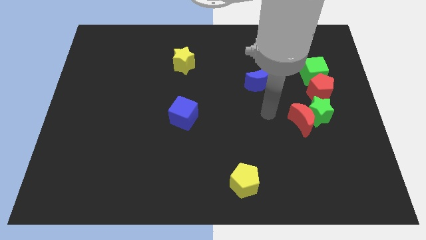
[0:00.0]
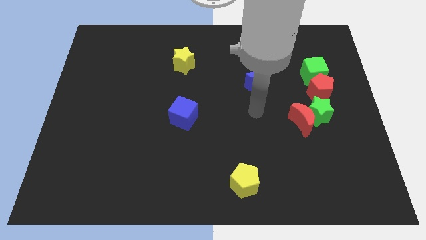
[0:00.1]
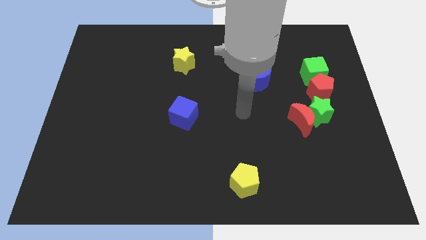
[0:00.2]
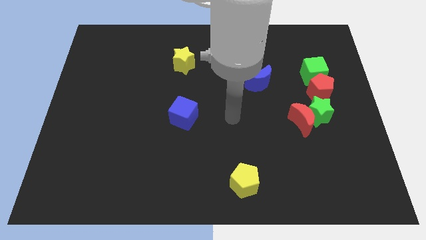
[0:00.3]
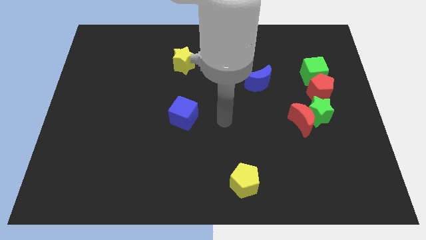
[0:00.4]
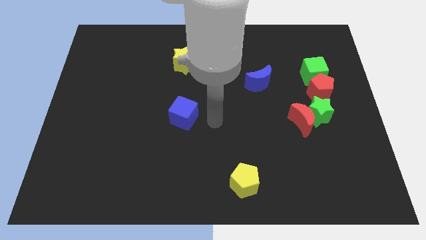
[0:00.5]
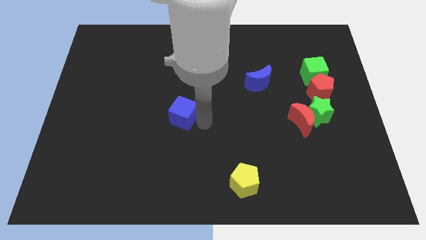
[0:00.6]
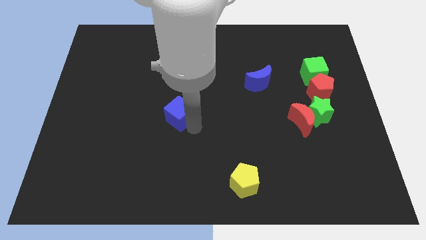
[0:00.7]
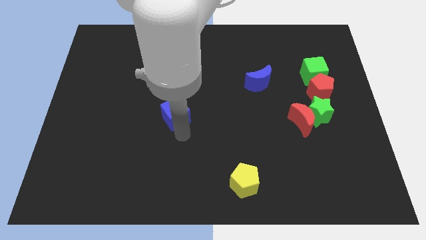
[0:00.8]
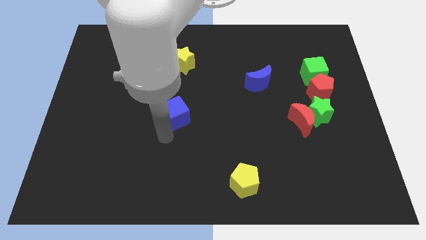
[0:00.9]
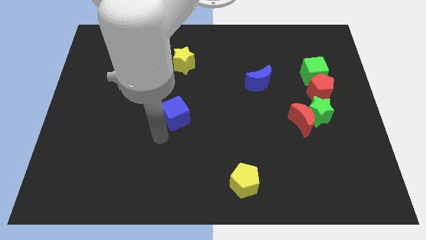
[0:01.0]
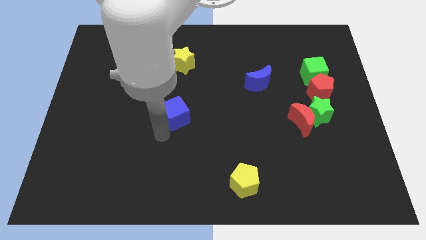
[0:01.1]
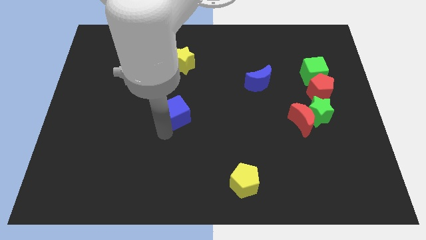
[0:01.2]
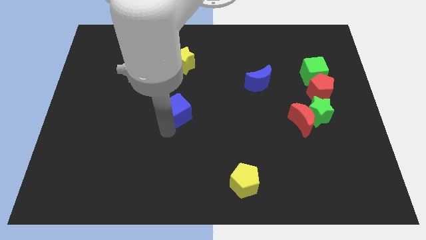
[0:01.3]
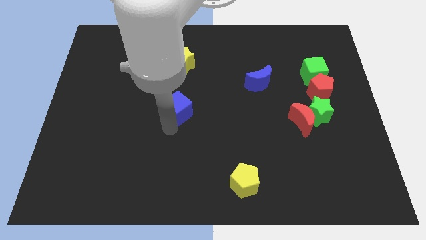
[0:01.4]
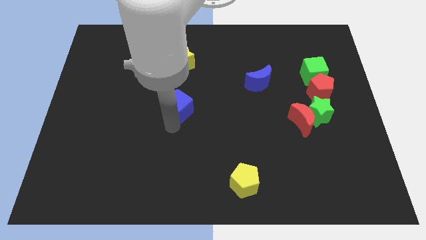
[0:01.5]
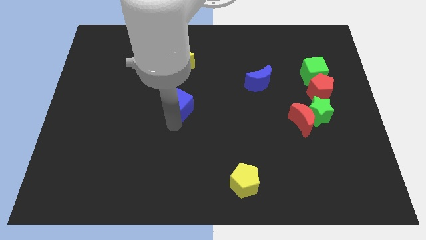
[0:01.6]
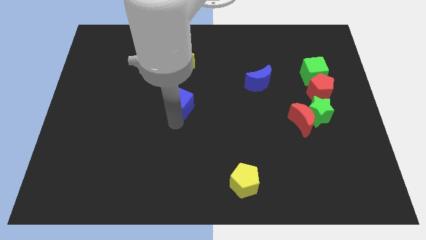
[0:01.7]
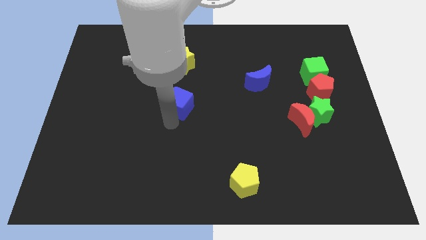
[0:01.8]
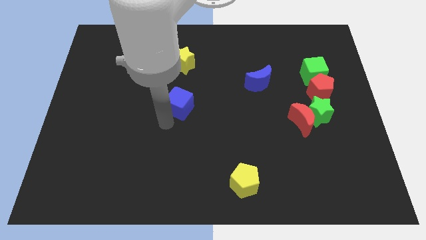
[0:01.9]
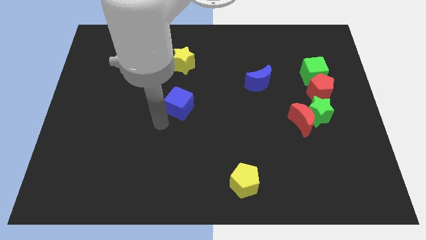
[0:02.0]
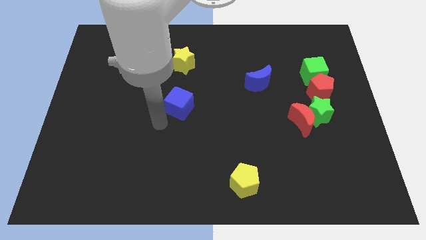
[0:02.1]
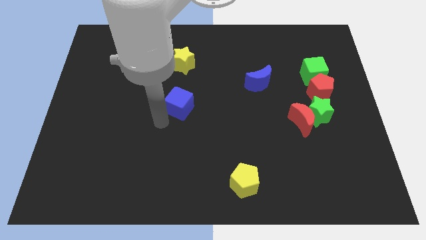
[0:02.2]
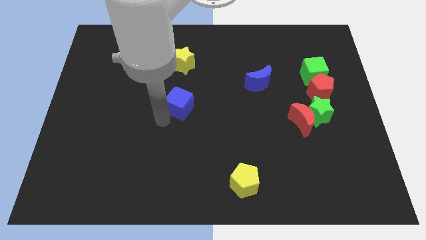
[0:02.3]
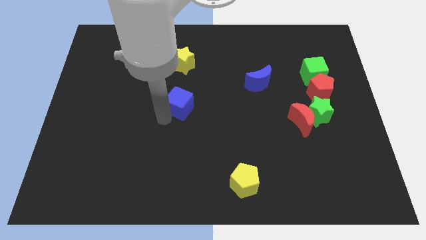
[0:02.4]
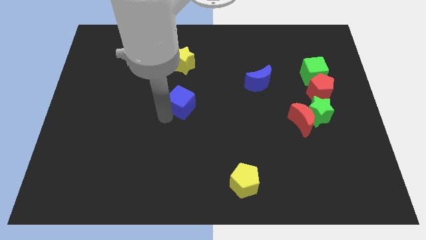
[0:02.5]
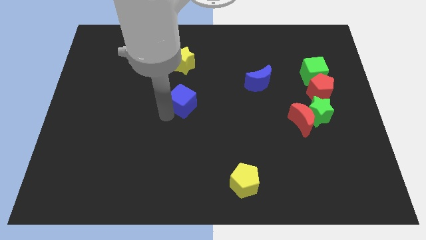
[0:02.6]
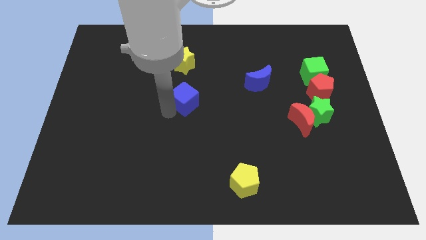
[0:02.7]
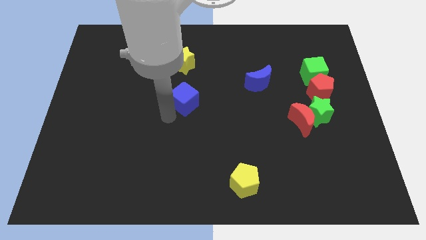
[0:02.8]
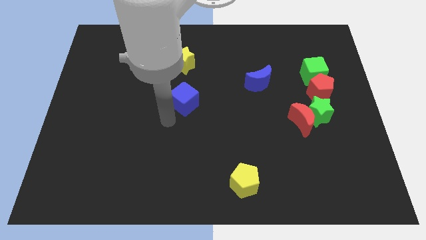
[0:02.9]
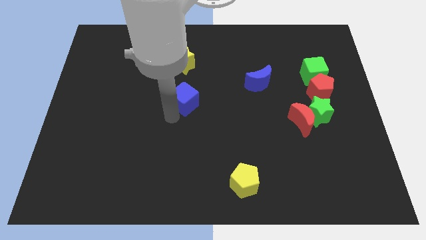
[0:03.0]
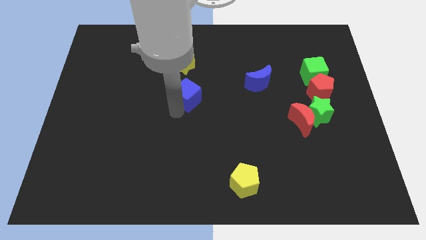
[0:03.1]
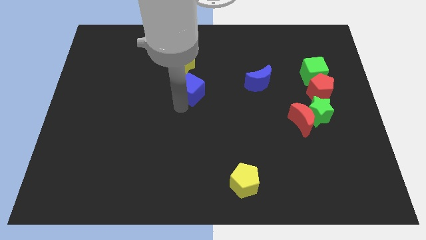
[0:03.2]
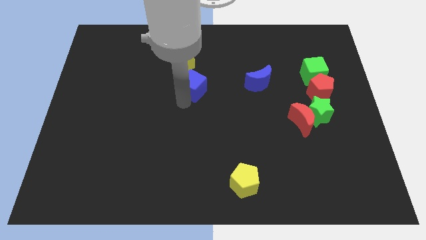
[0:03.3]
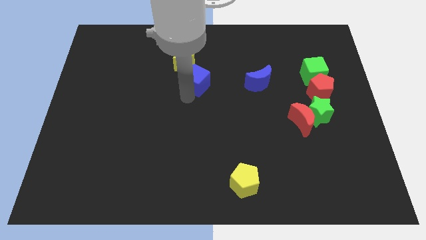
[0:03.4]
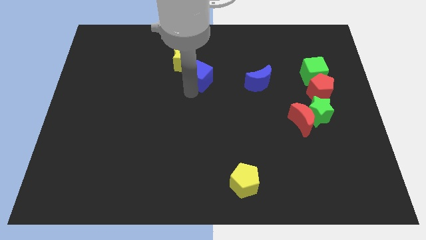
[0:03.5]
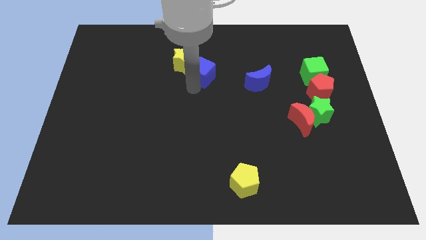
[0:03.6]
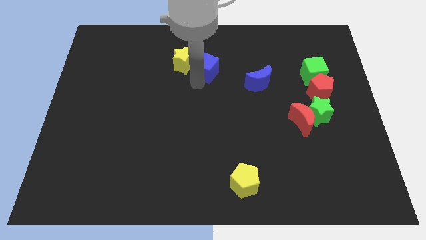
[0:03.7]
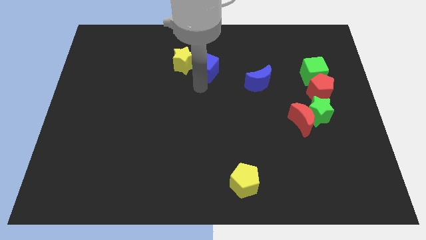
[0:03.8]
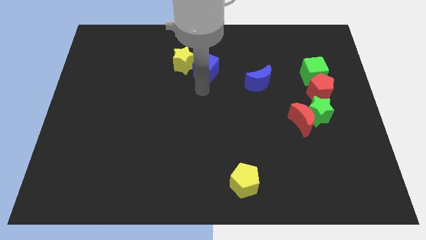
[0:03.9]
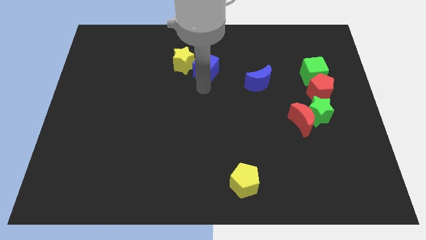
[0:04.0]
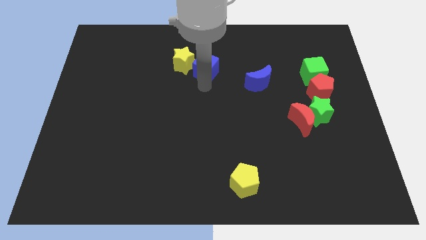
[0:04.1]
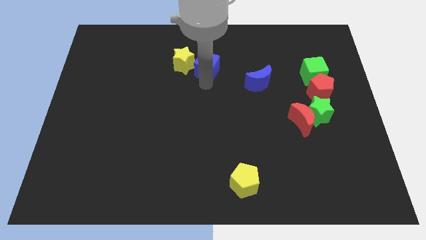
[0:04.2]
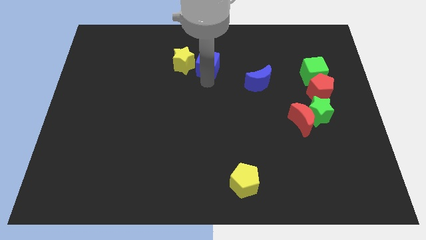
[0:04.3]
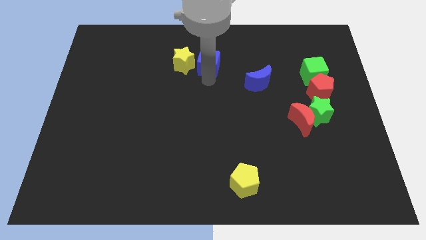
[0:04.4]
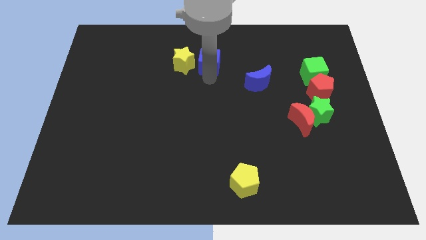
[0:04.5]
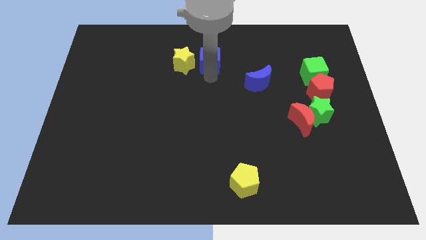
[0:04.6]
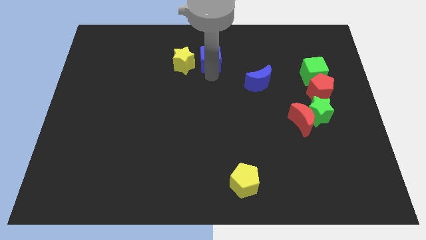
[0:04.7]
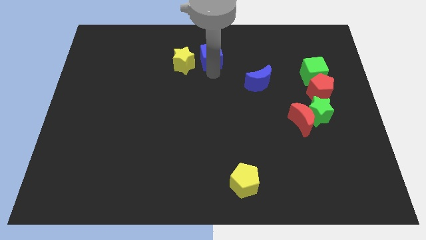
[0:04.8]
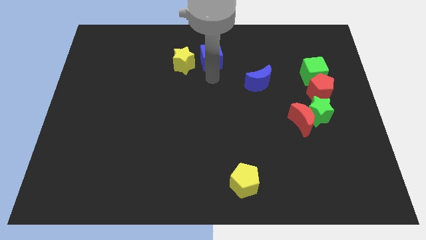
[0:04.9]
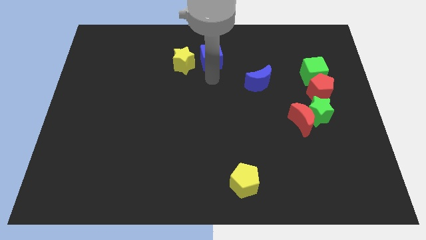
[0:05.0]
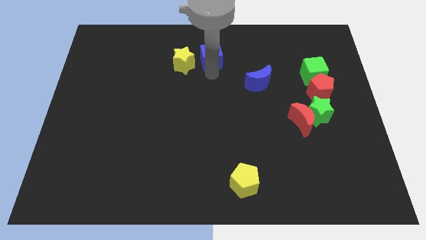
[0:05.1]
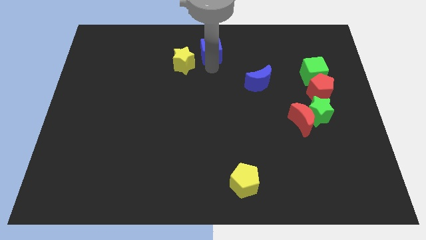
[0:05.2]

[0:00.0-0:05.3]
move the blue cube to the top side

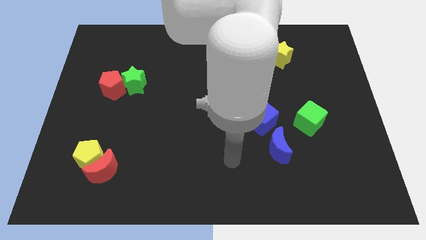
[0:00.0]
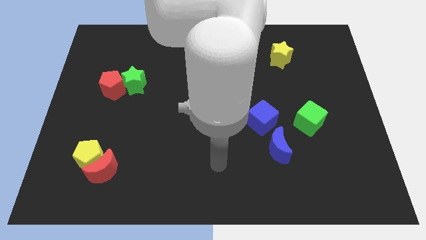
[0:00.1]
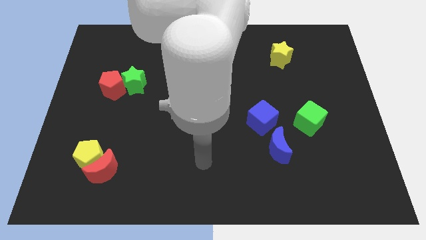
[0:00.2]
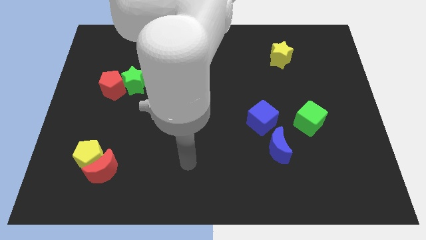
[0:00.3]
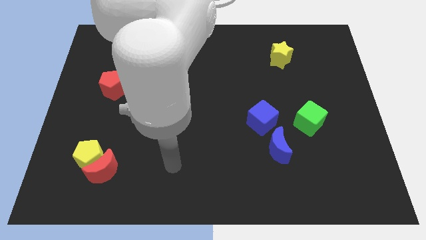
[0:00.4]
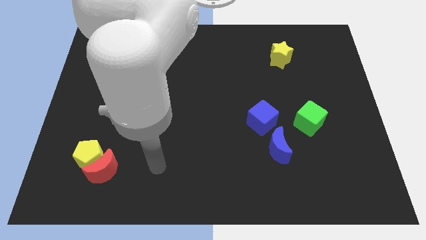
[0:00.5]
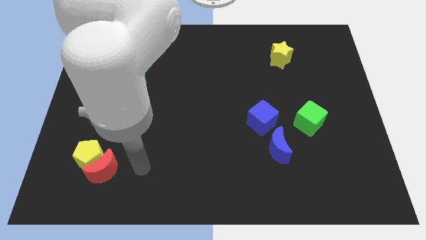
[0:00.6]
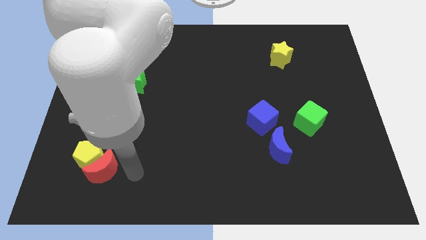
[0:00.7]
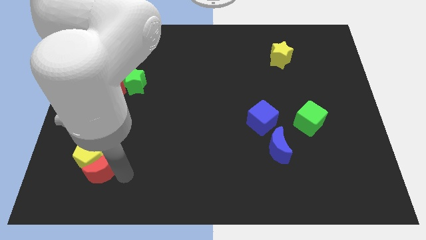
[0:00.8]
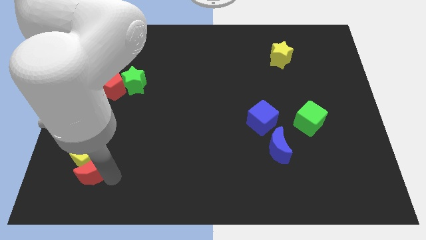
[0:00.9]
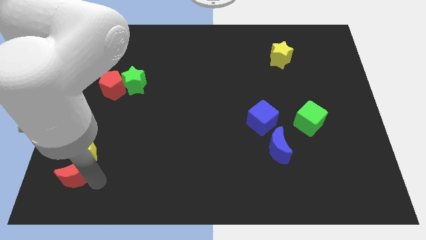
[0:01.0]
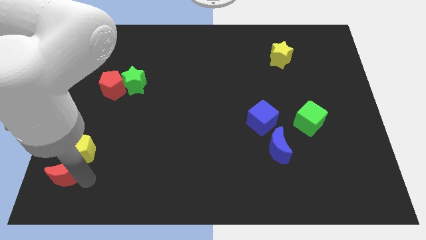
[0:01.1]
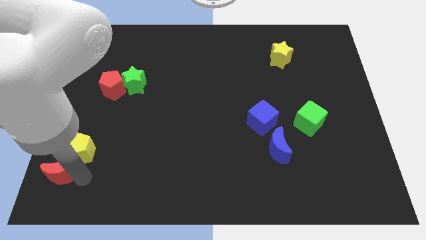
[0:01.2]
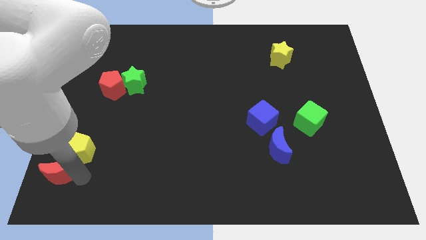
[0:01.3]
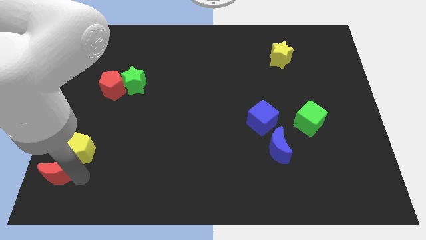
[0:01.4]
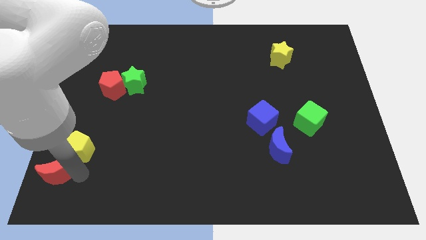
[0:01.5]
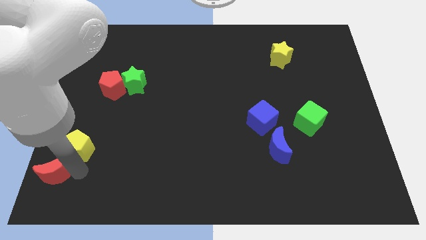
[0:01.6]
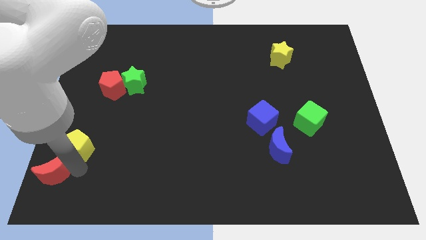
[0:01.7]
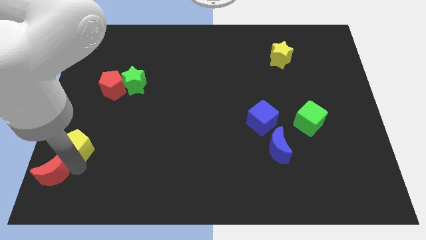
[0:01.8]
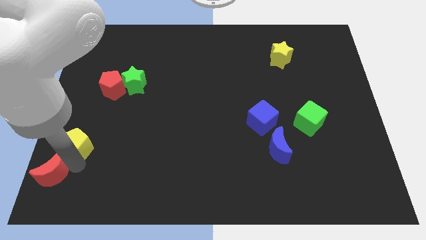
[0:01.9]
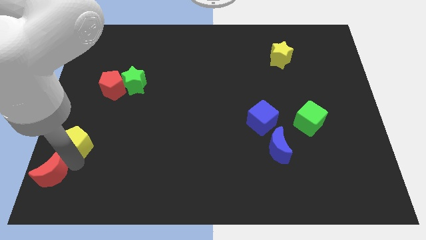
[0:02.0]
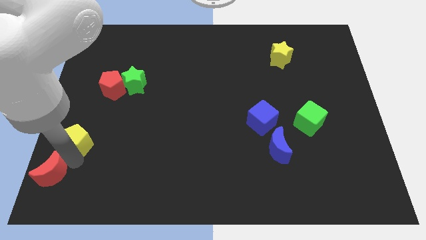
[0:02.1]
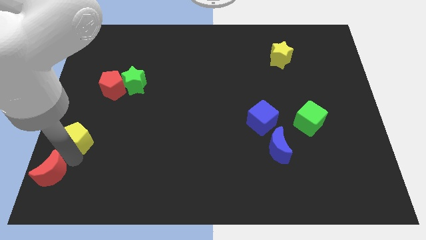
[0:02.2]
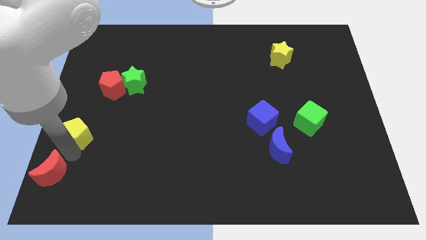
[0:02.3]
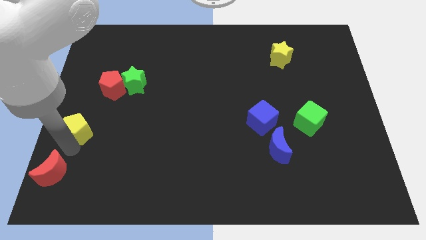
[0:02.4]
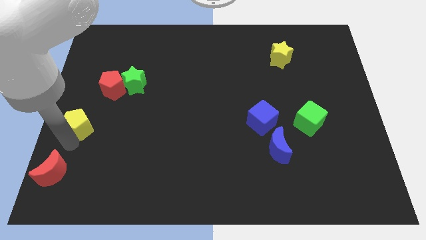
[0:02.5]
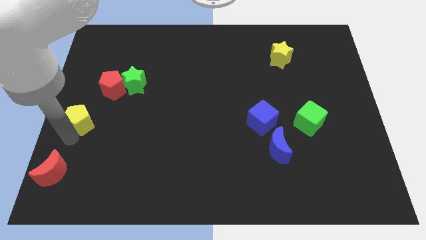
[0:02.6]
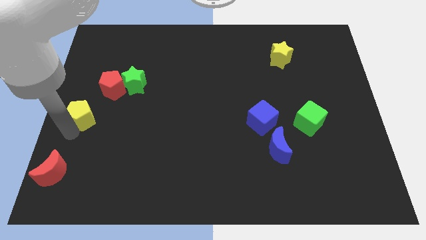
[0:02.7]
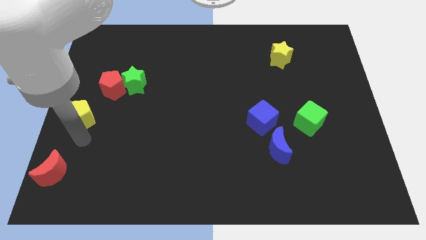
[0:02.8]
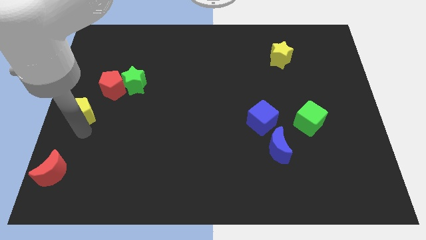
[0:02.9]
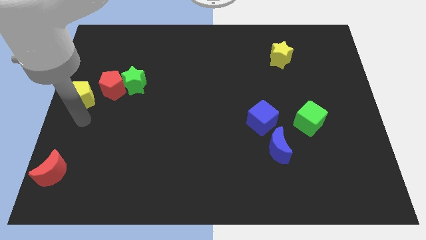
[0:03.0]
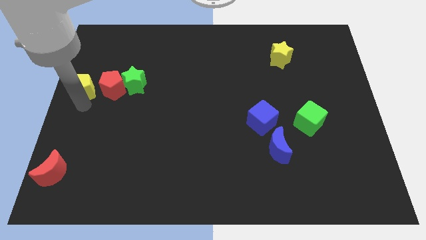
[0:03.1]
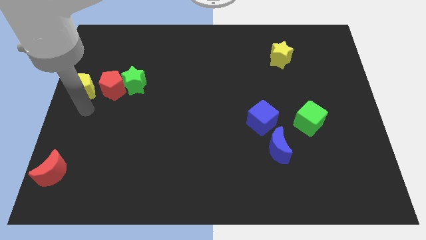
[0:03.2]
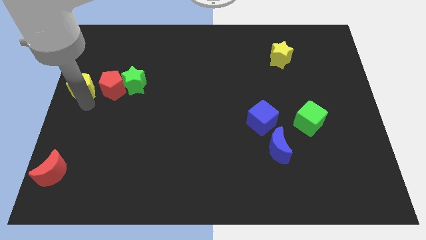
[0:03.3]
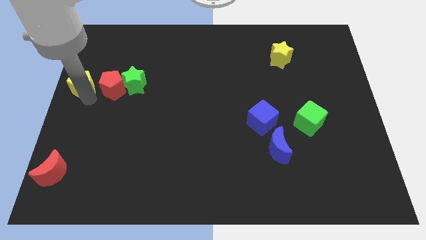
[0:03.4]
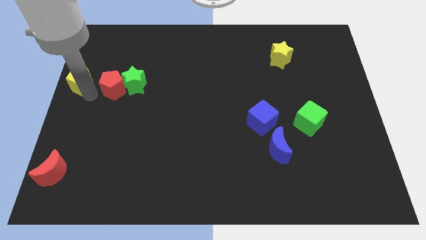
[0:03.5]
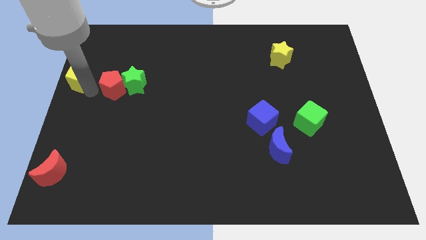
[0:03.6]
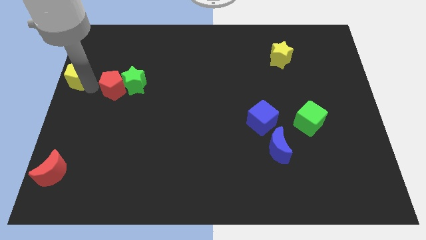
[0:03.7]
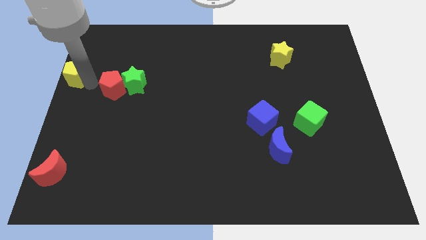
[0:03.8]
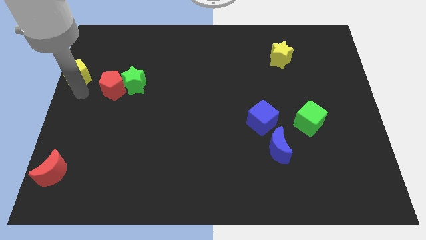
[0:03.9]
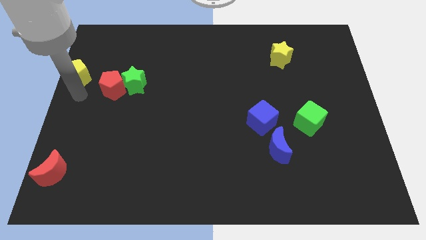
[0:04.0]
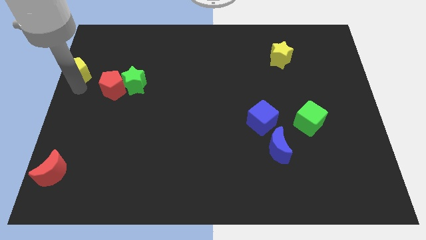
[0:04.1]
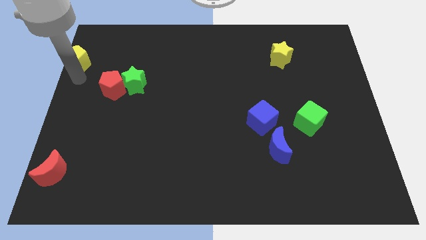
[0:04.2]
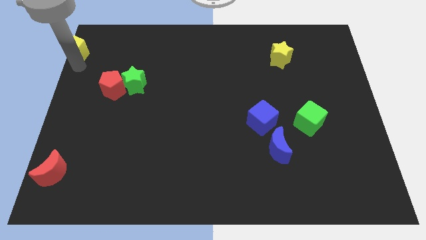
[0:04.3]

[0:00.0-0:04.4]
put the yellow pentagon to the top left corner
